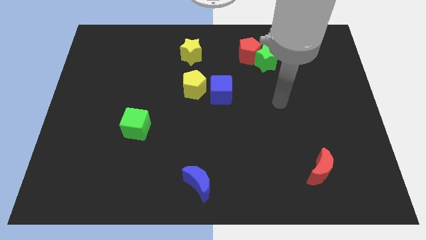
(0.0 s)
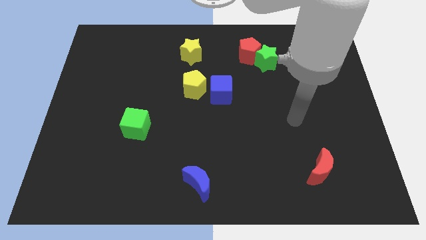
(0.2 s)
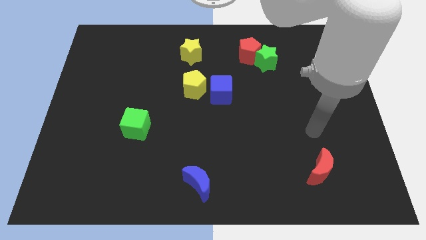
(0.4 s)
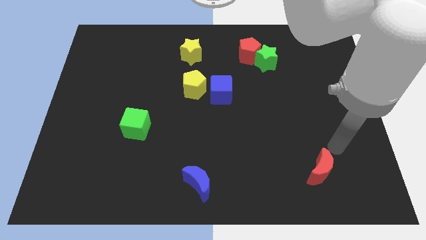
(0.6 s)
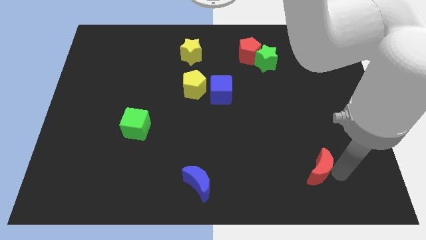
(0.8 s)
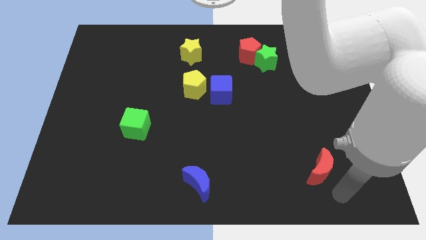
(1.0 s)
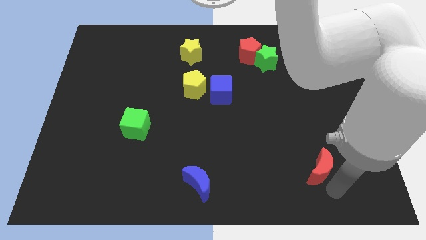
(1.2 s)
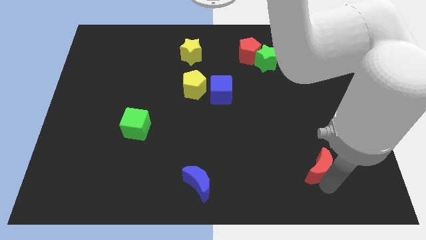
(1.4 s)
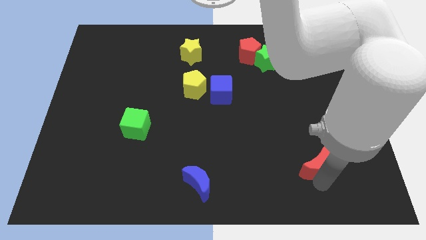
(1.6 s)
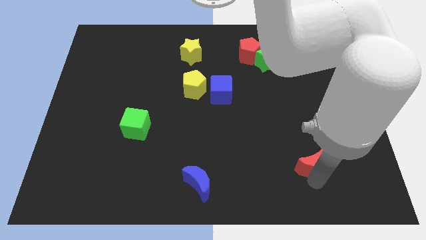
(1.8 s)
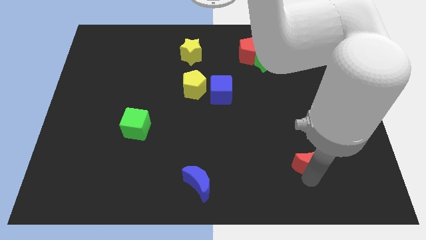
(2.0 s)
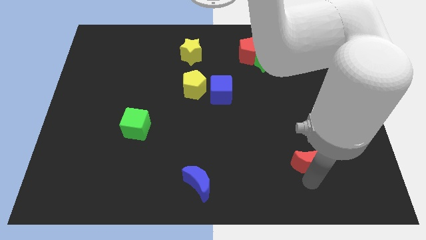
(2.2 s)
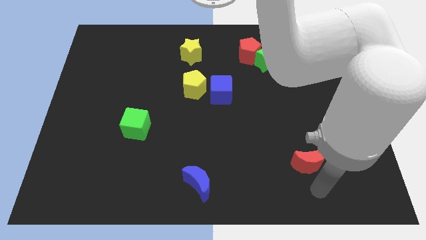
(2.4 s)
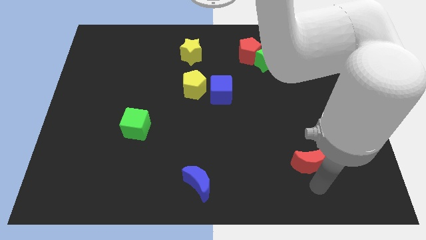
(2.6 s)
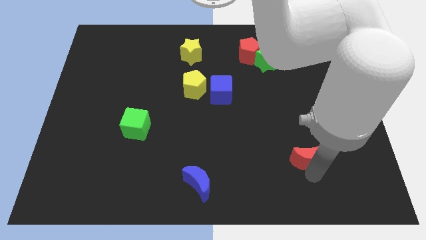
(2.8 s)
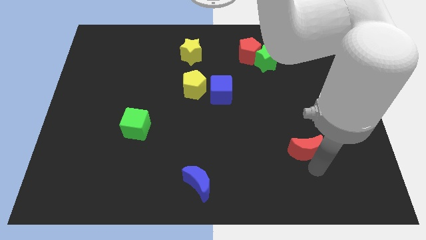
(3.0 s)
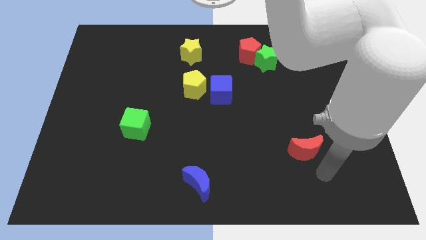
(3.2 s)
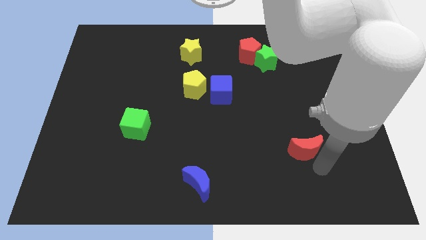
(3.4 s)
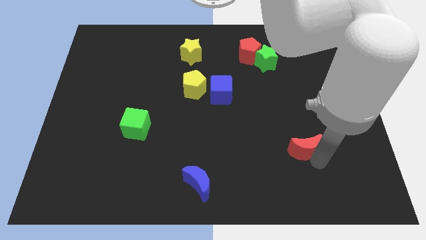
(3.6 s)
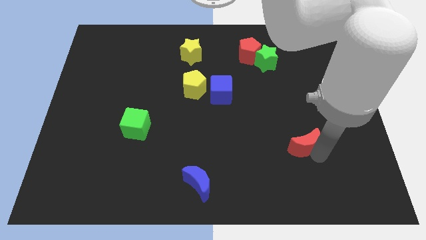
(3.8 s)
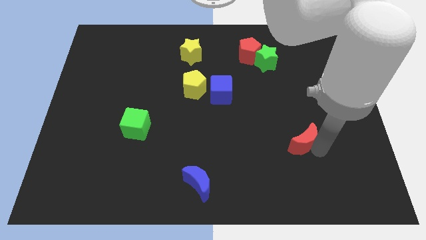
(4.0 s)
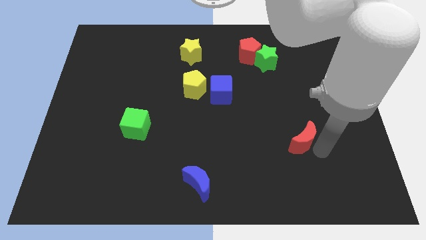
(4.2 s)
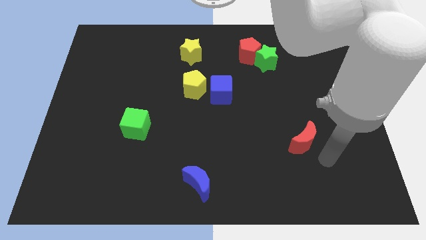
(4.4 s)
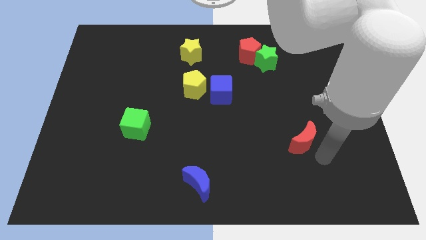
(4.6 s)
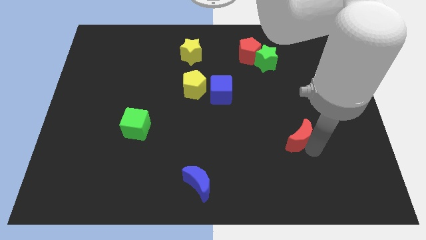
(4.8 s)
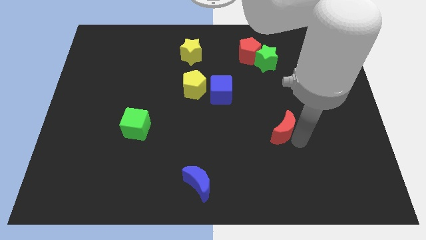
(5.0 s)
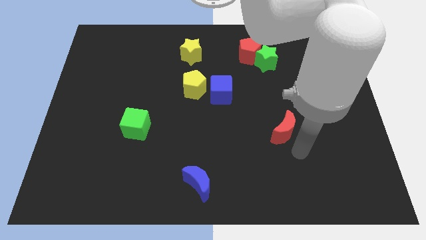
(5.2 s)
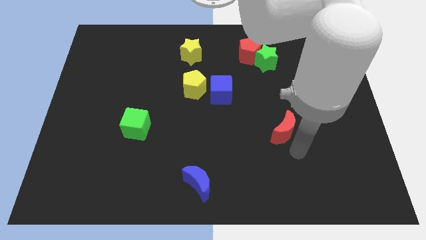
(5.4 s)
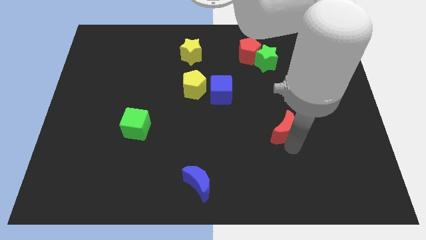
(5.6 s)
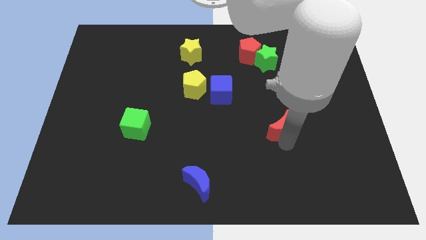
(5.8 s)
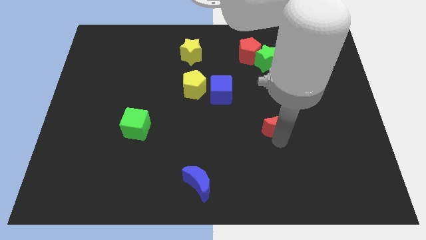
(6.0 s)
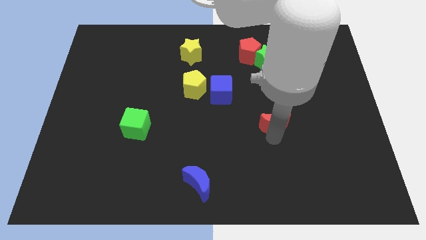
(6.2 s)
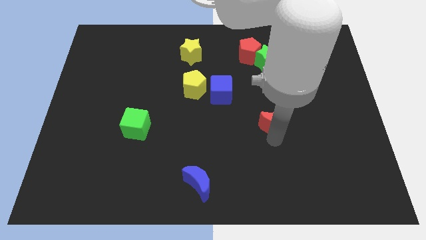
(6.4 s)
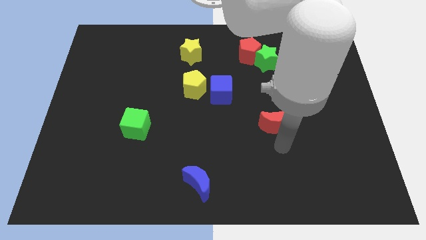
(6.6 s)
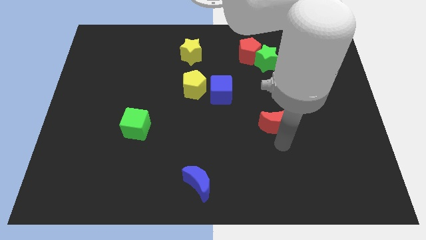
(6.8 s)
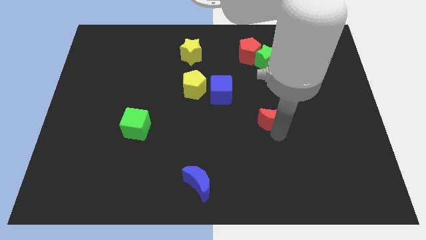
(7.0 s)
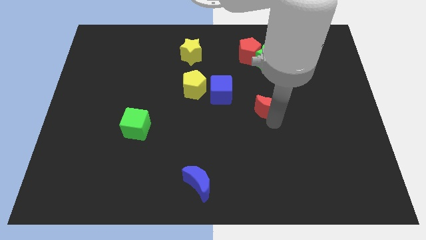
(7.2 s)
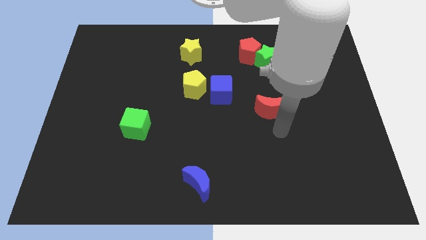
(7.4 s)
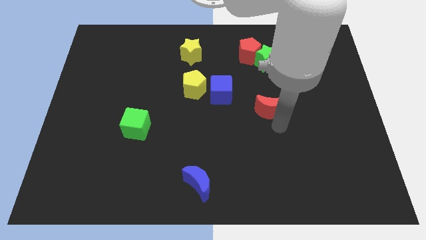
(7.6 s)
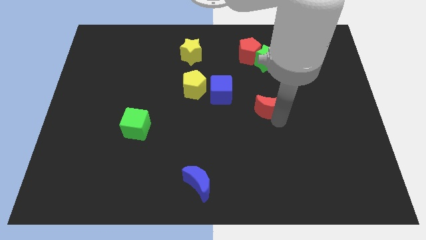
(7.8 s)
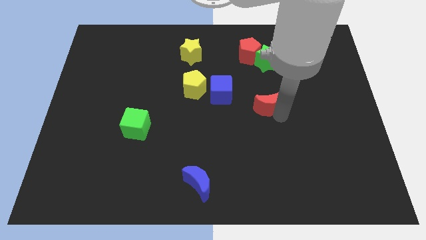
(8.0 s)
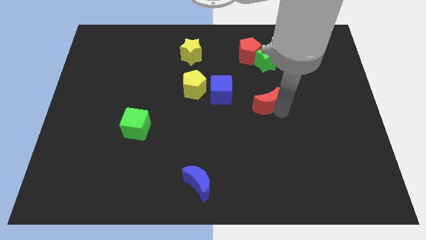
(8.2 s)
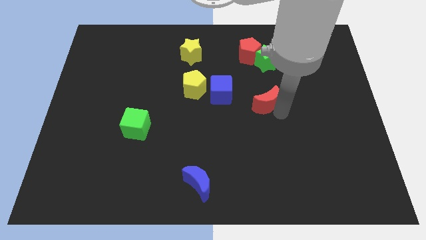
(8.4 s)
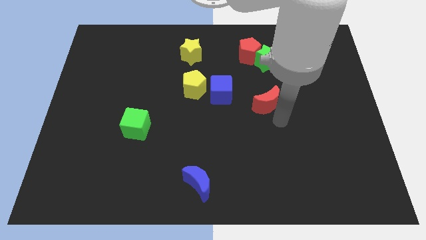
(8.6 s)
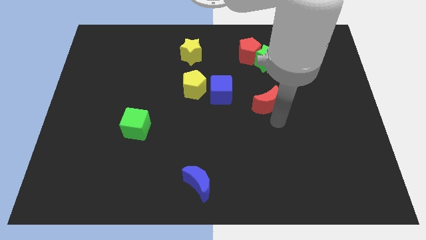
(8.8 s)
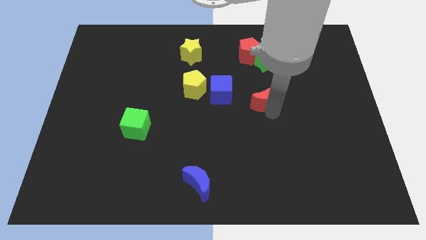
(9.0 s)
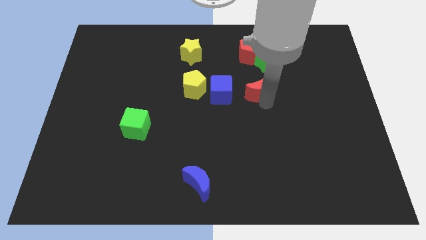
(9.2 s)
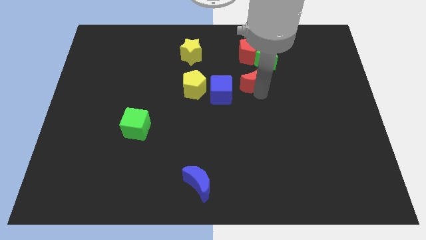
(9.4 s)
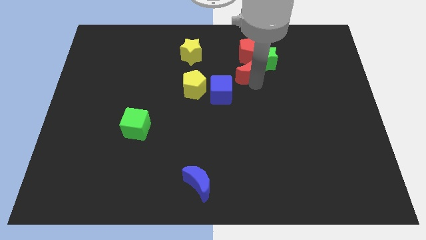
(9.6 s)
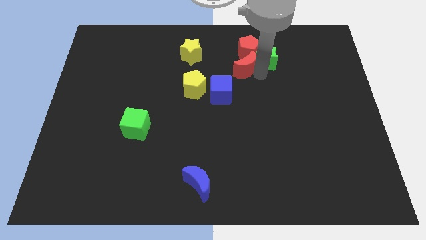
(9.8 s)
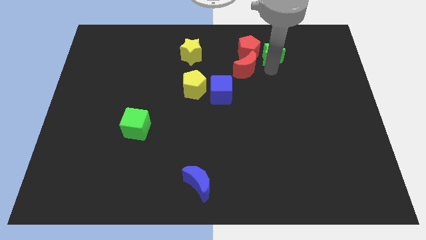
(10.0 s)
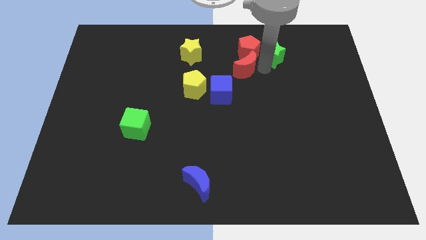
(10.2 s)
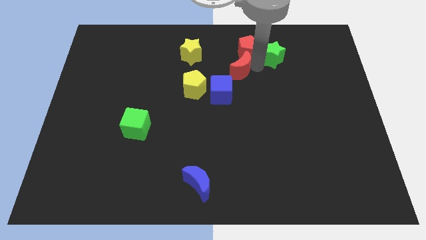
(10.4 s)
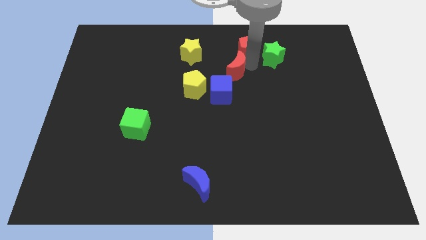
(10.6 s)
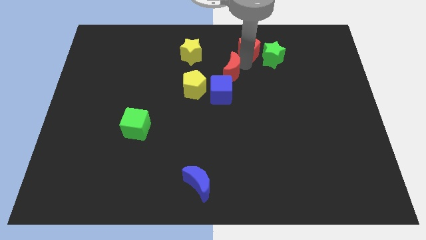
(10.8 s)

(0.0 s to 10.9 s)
slide the red moon to the bottom right side of the yellow star
